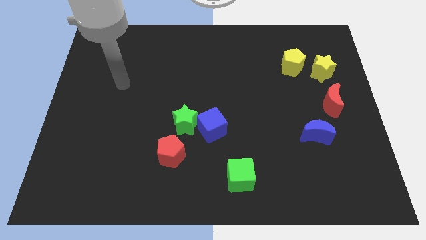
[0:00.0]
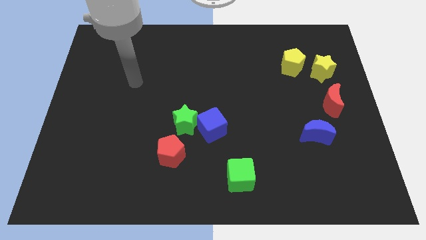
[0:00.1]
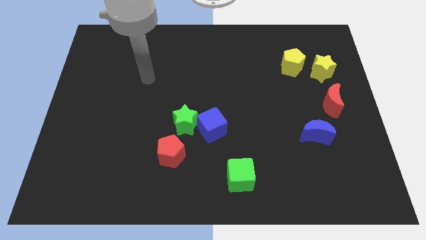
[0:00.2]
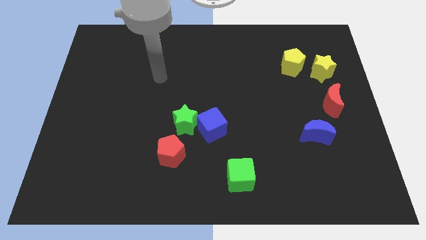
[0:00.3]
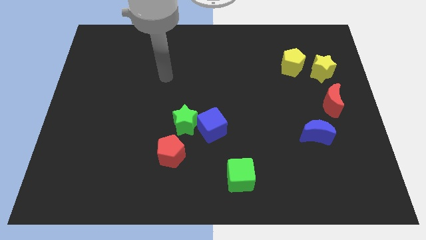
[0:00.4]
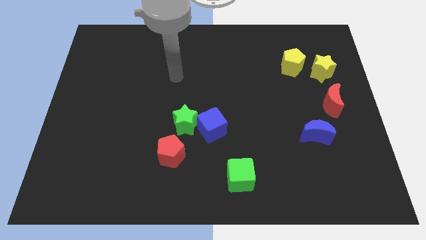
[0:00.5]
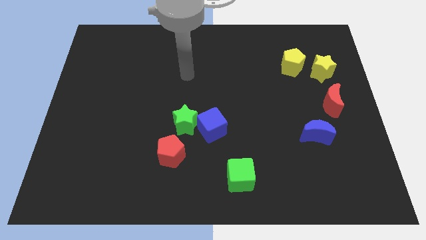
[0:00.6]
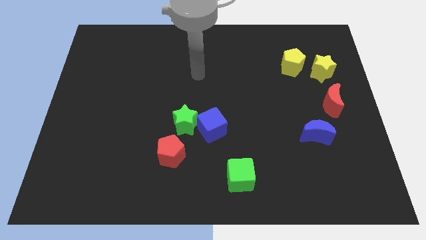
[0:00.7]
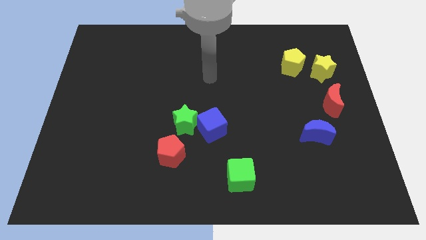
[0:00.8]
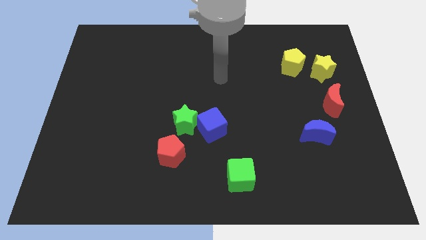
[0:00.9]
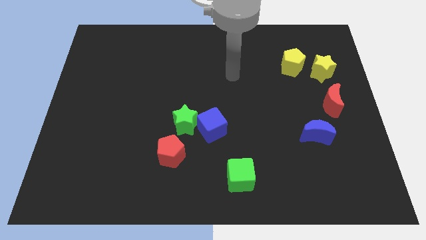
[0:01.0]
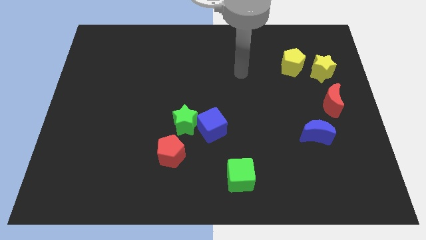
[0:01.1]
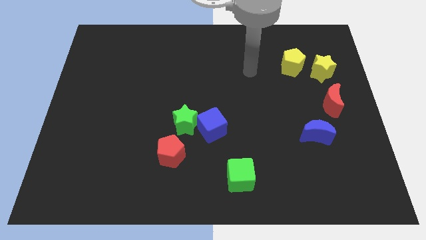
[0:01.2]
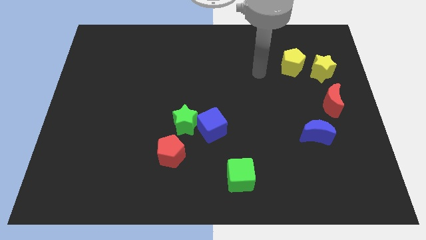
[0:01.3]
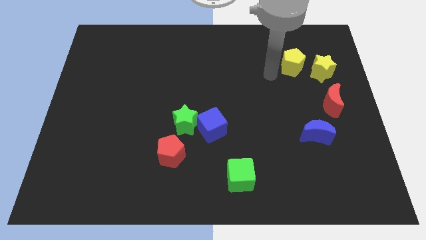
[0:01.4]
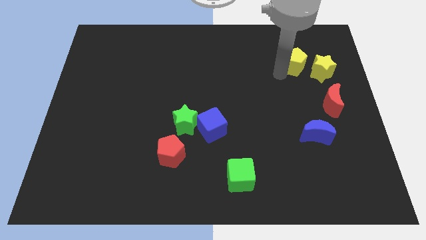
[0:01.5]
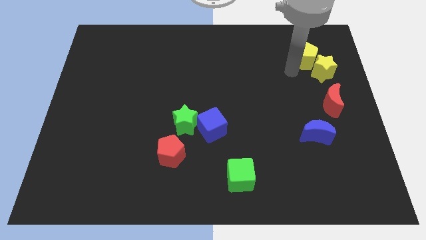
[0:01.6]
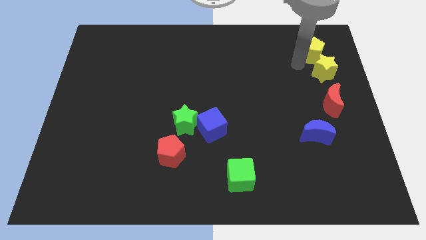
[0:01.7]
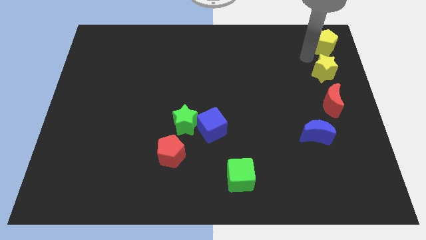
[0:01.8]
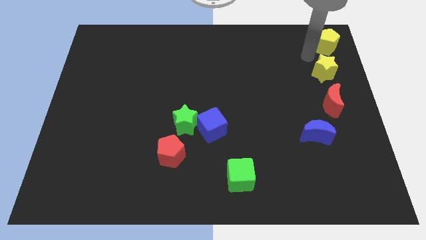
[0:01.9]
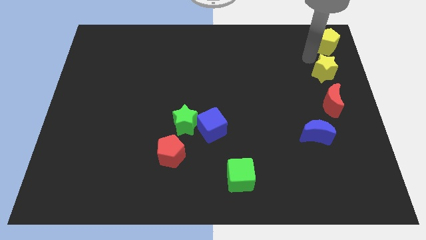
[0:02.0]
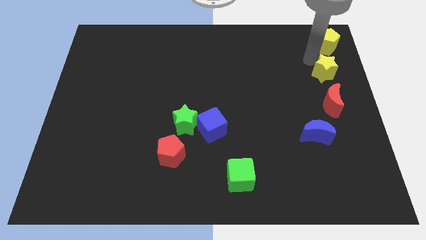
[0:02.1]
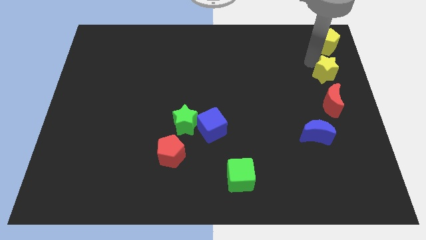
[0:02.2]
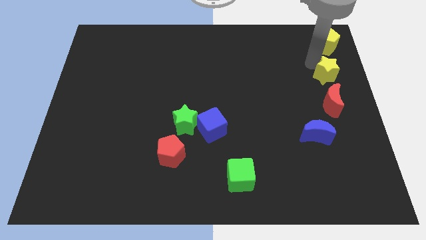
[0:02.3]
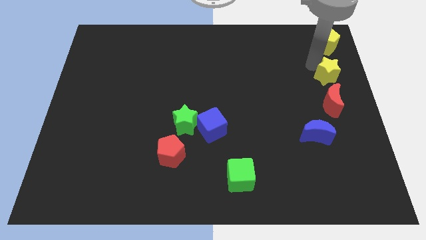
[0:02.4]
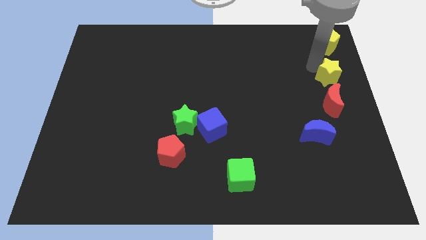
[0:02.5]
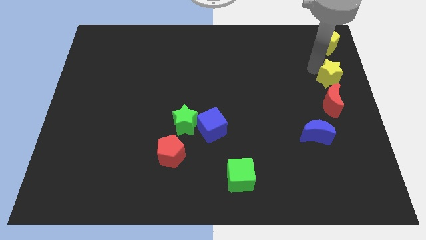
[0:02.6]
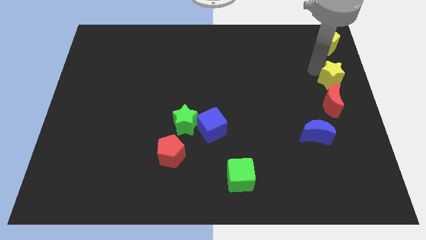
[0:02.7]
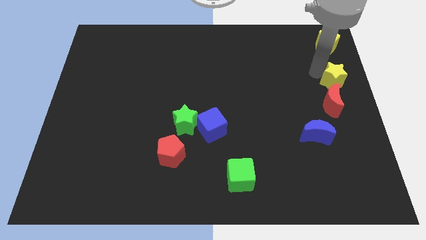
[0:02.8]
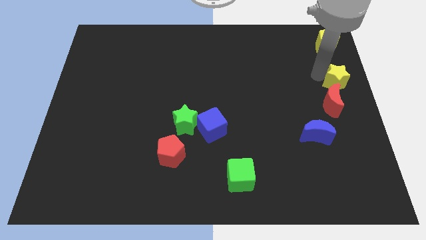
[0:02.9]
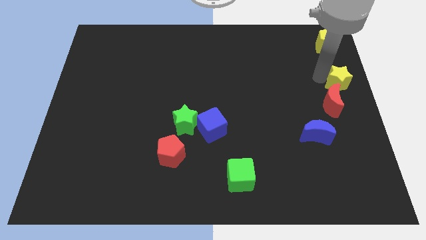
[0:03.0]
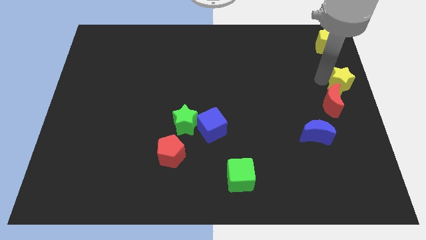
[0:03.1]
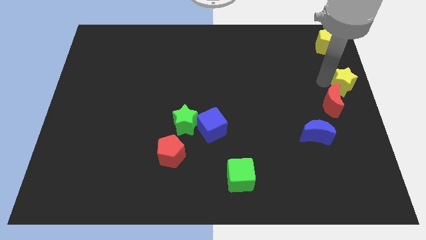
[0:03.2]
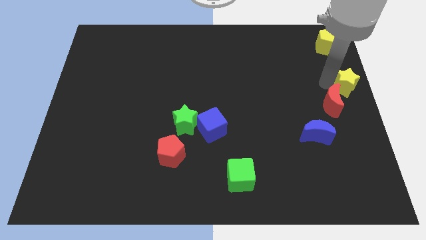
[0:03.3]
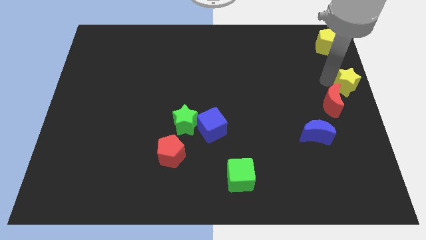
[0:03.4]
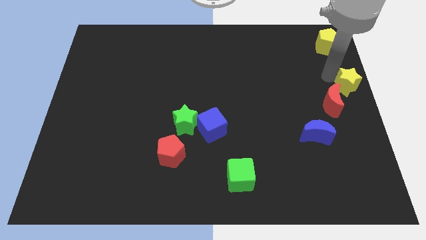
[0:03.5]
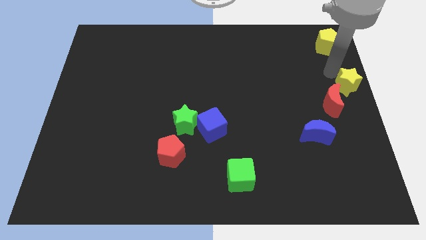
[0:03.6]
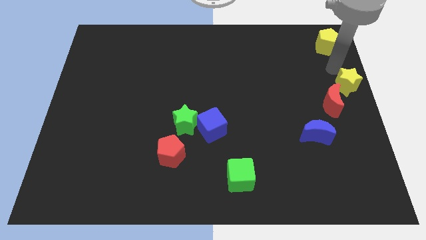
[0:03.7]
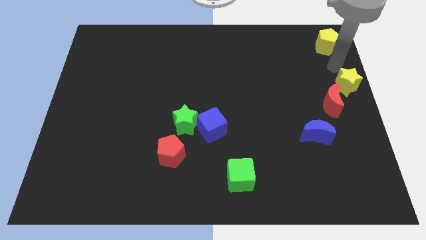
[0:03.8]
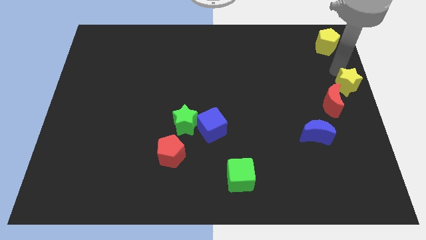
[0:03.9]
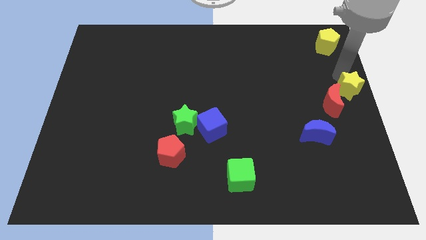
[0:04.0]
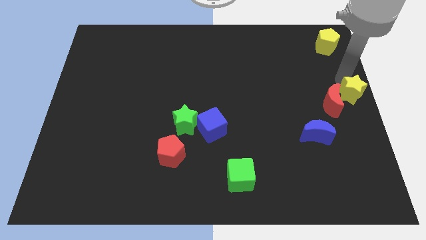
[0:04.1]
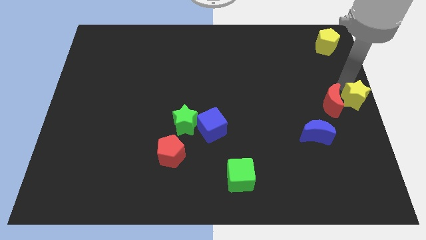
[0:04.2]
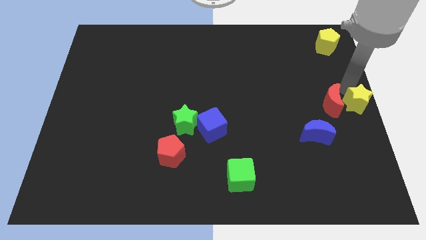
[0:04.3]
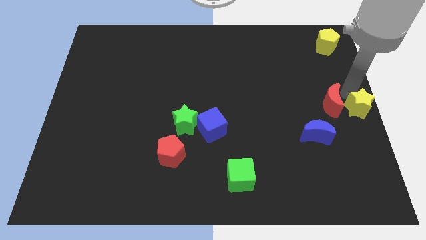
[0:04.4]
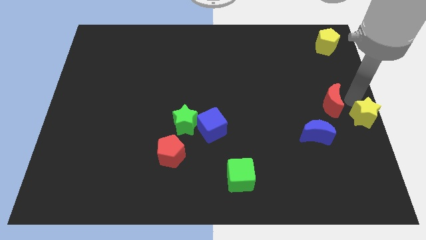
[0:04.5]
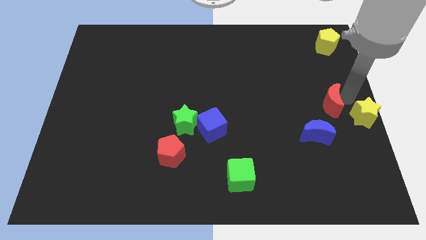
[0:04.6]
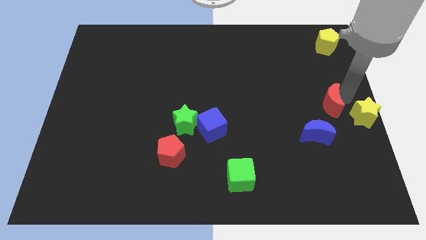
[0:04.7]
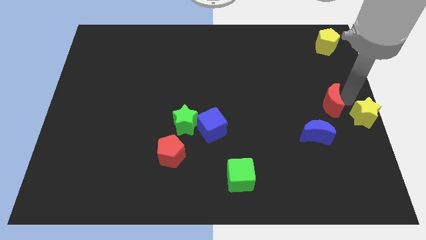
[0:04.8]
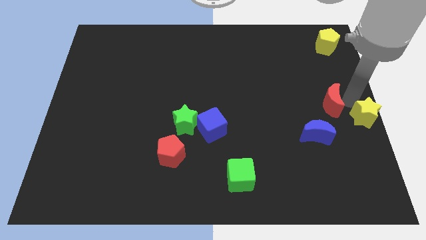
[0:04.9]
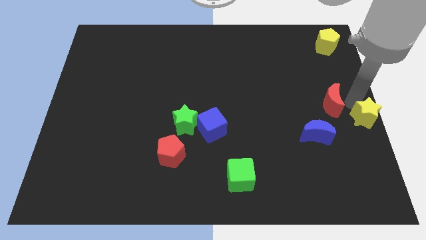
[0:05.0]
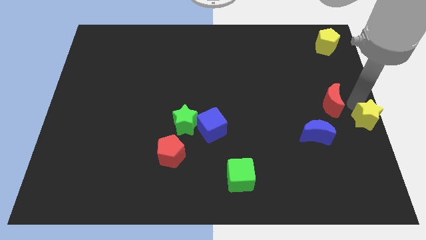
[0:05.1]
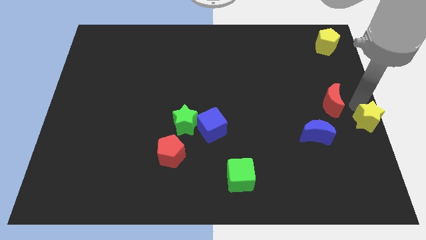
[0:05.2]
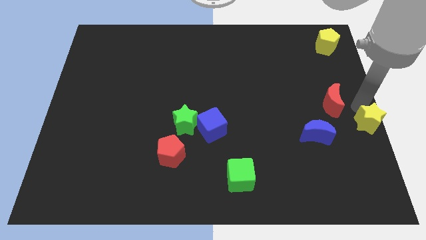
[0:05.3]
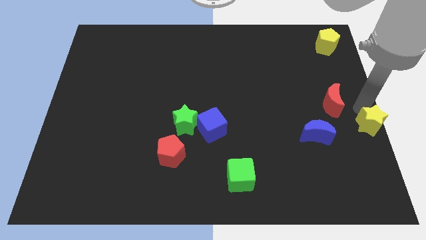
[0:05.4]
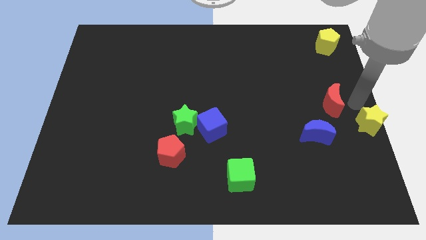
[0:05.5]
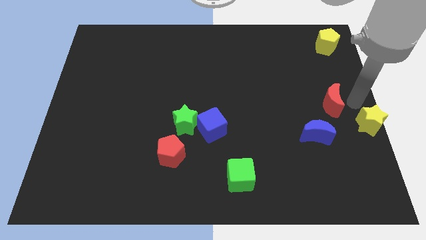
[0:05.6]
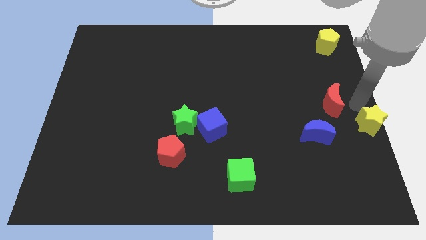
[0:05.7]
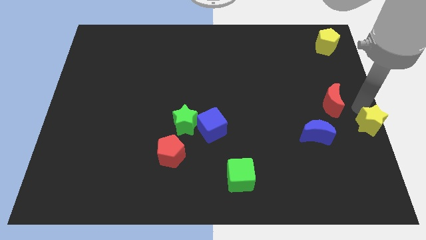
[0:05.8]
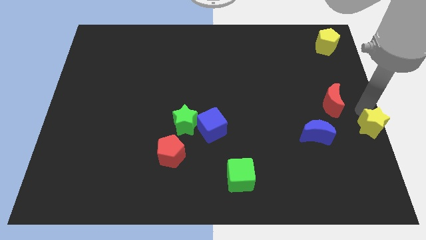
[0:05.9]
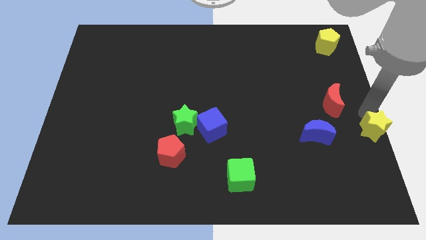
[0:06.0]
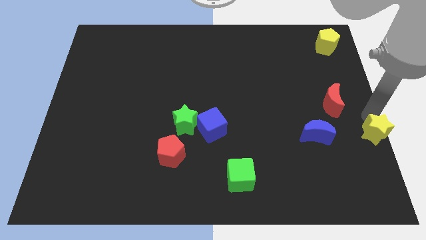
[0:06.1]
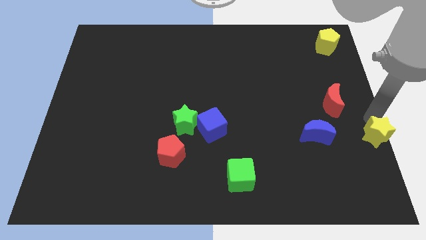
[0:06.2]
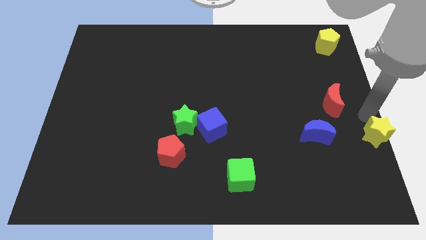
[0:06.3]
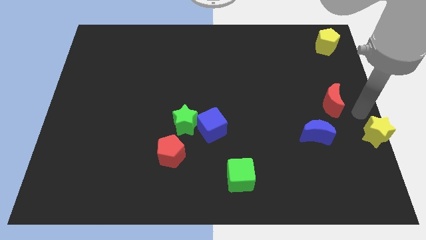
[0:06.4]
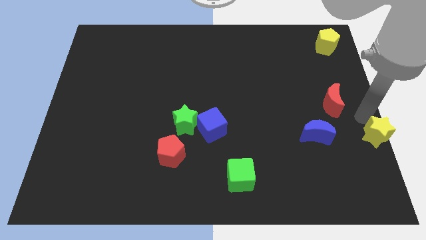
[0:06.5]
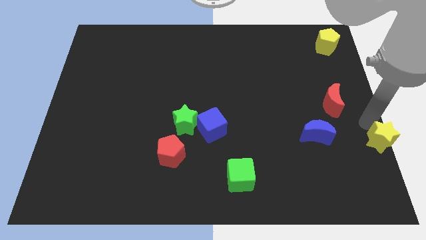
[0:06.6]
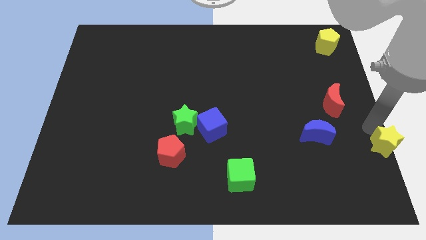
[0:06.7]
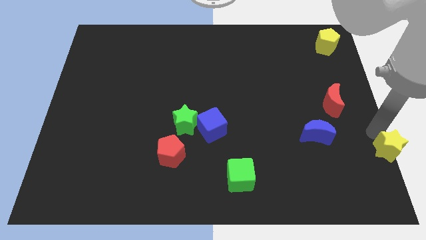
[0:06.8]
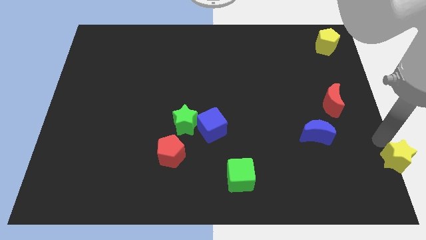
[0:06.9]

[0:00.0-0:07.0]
put the yellow star to the bottom right
